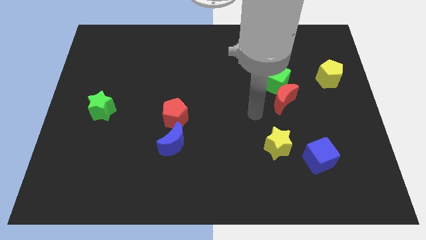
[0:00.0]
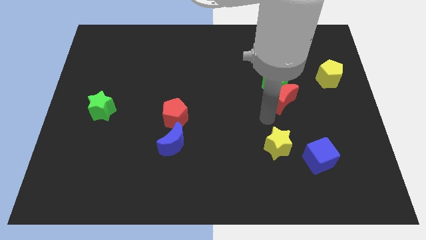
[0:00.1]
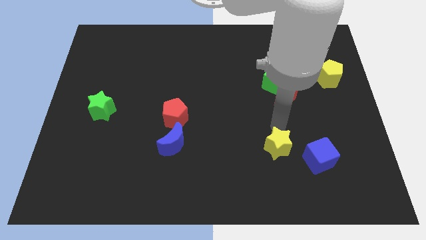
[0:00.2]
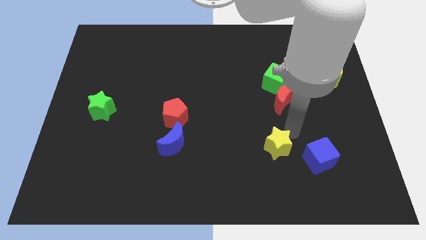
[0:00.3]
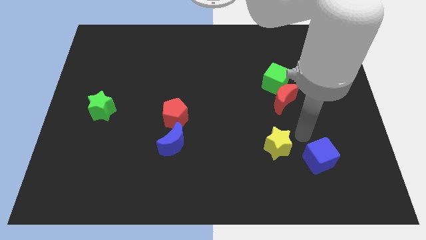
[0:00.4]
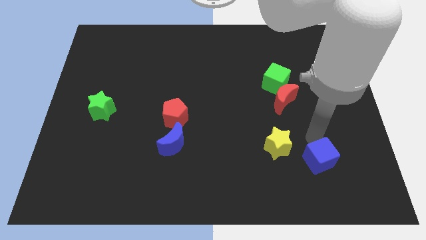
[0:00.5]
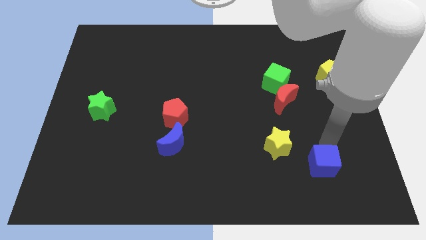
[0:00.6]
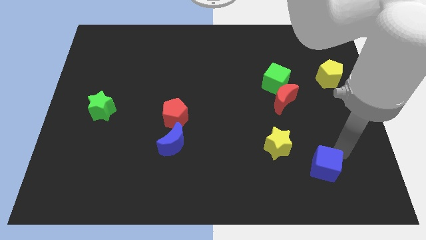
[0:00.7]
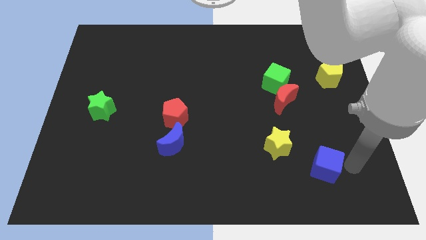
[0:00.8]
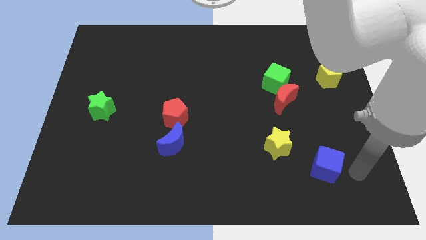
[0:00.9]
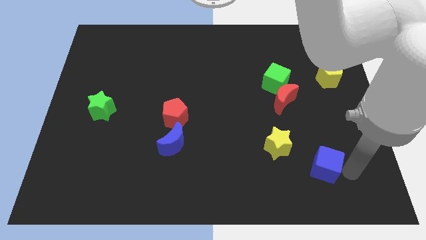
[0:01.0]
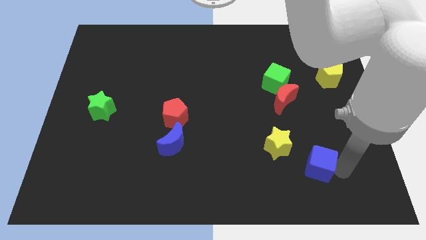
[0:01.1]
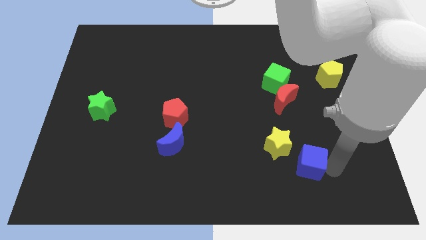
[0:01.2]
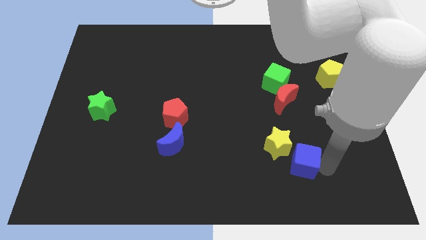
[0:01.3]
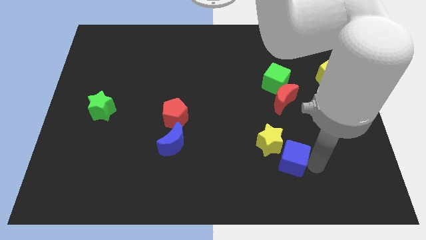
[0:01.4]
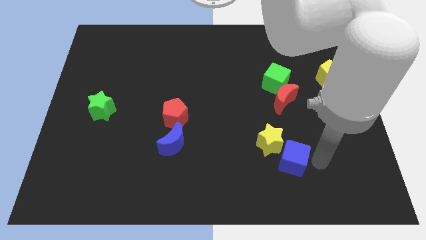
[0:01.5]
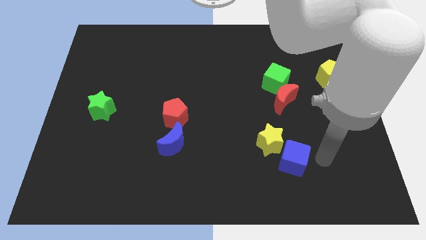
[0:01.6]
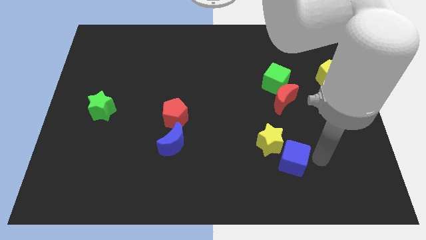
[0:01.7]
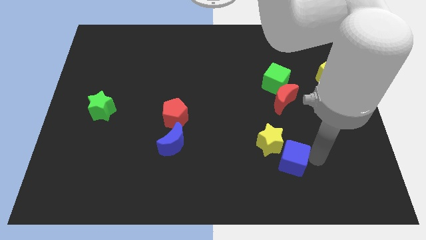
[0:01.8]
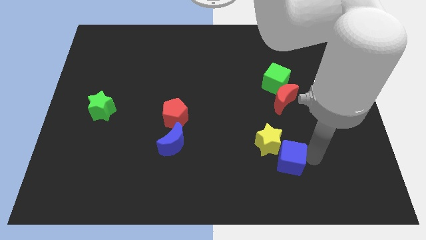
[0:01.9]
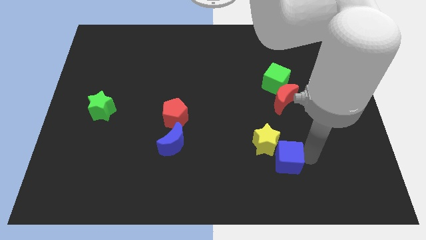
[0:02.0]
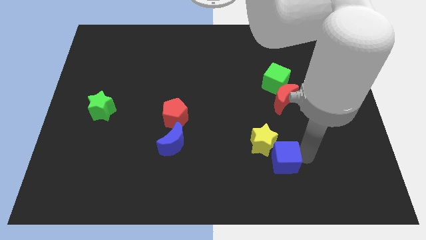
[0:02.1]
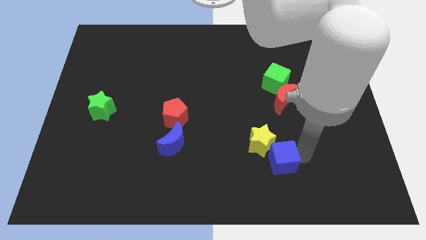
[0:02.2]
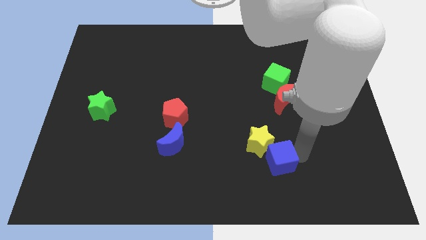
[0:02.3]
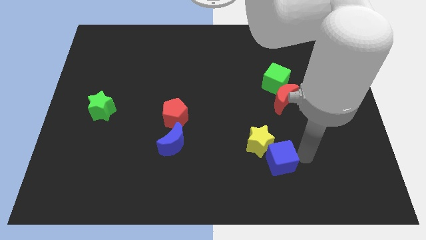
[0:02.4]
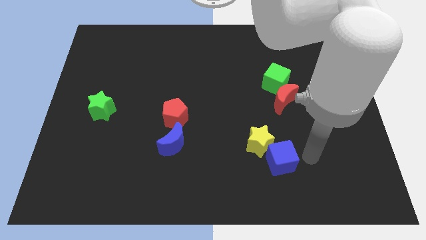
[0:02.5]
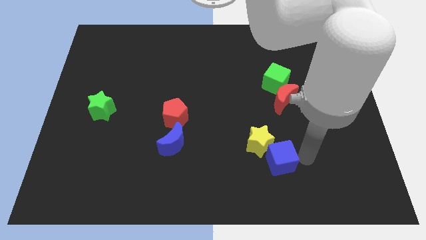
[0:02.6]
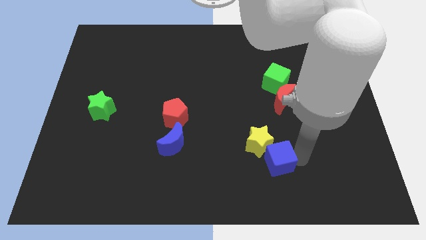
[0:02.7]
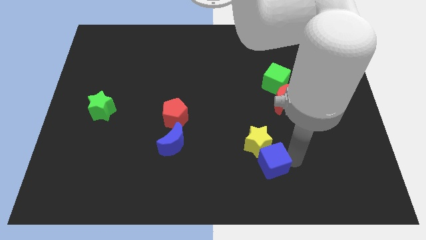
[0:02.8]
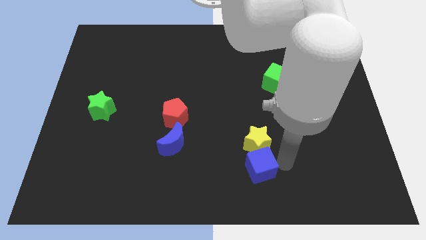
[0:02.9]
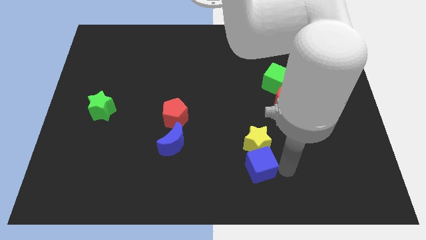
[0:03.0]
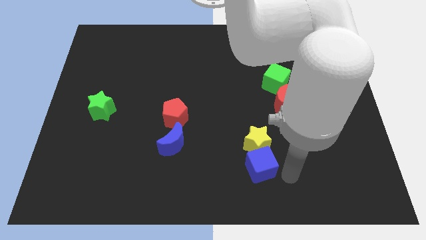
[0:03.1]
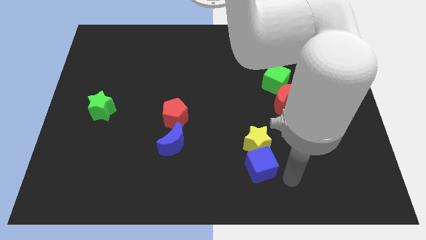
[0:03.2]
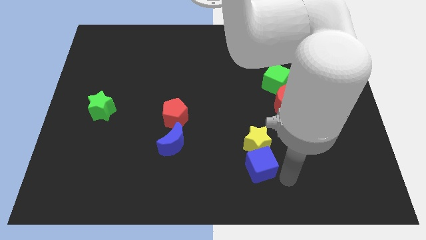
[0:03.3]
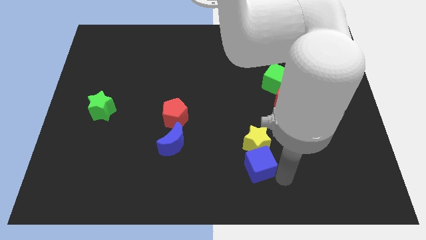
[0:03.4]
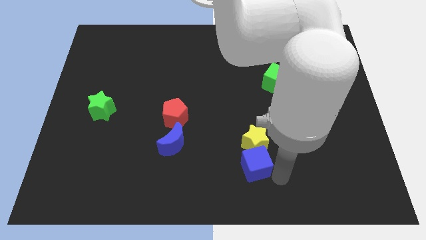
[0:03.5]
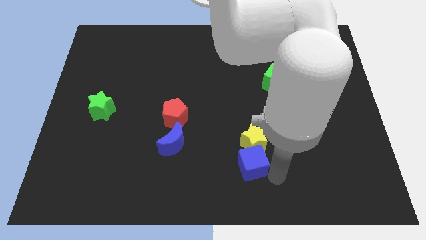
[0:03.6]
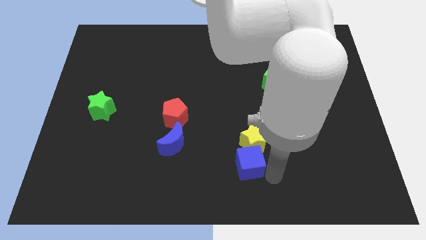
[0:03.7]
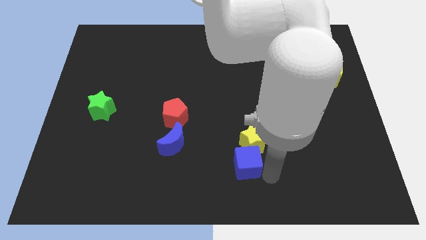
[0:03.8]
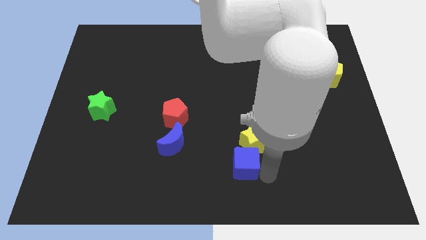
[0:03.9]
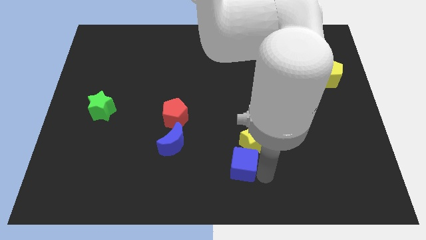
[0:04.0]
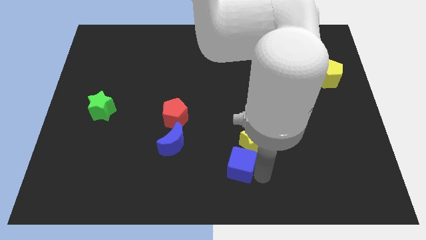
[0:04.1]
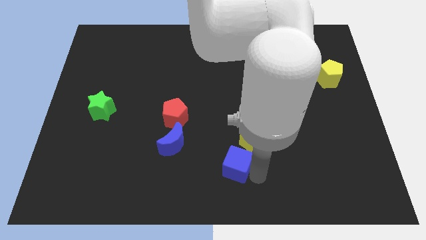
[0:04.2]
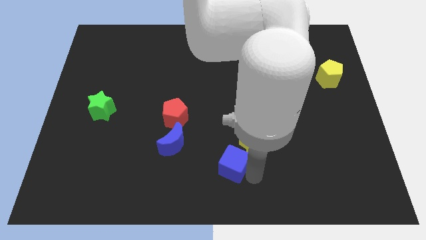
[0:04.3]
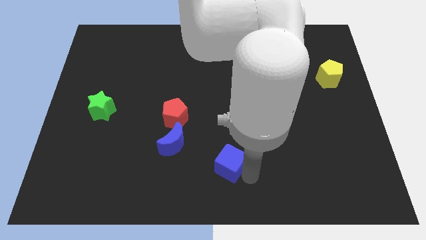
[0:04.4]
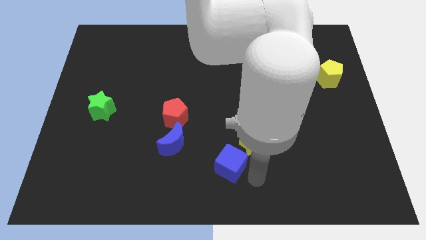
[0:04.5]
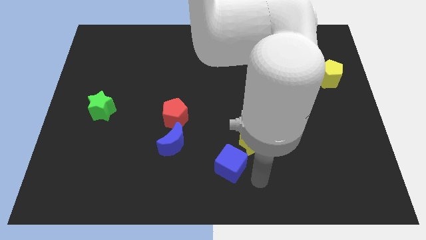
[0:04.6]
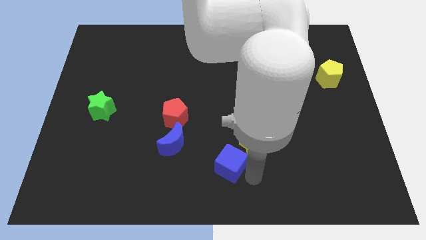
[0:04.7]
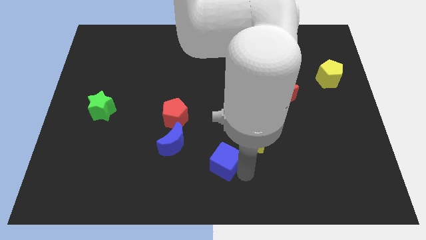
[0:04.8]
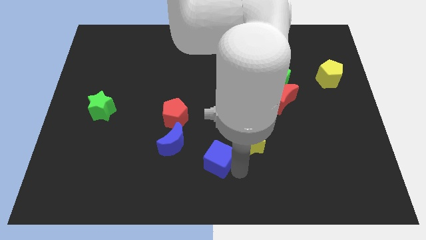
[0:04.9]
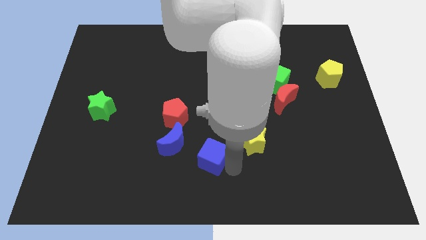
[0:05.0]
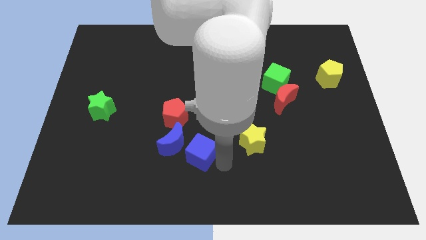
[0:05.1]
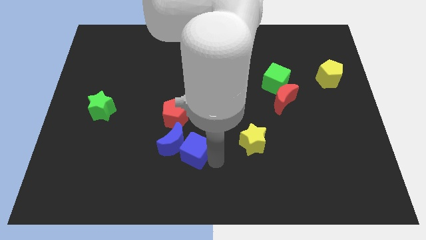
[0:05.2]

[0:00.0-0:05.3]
push the blue cube close to the blue moon

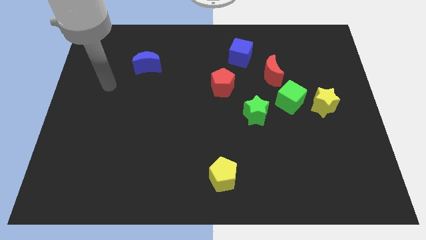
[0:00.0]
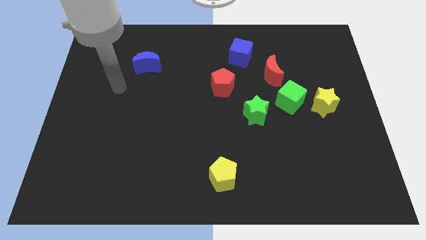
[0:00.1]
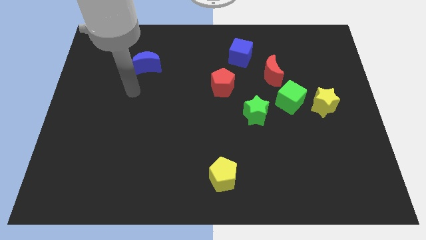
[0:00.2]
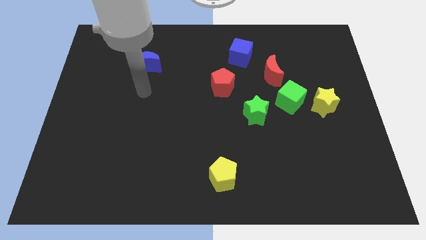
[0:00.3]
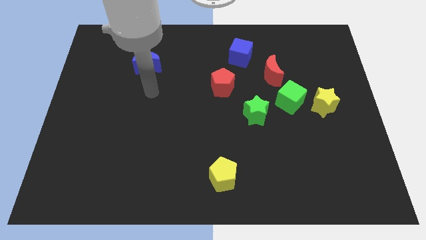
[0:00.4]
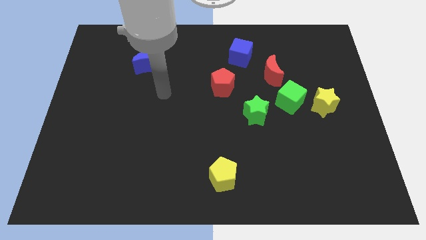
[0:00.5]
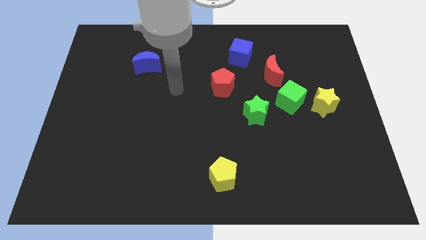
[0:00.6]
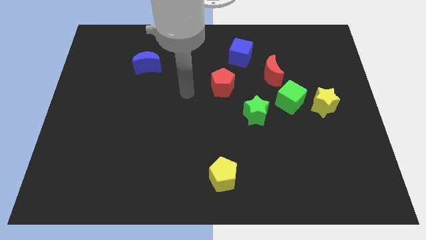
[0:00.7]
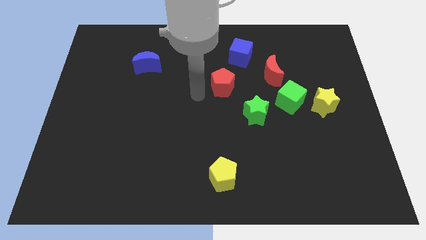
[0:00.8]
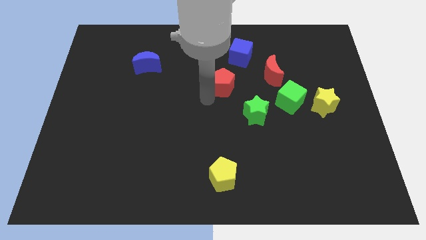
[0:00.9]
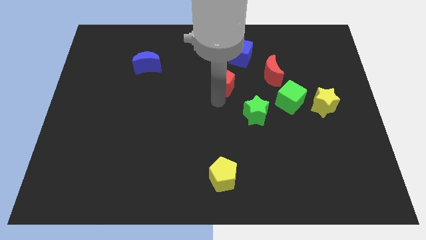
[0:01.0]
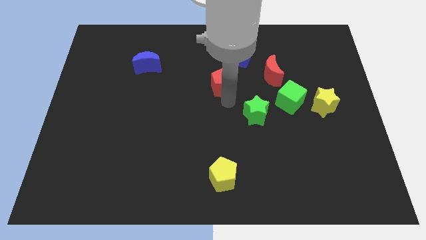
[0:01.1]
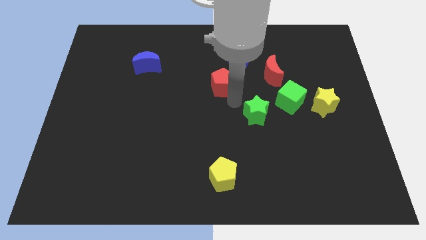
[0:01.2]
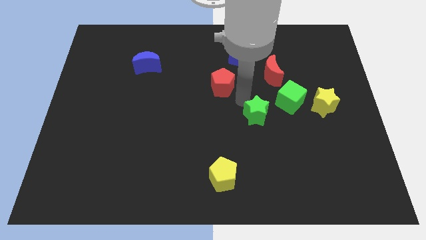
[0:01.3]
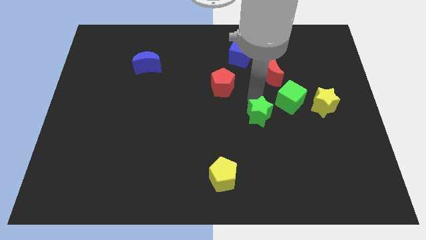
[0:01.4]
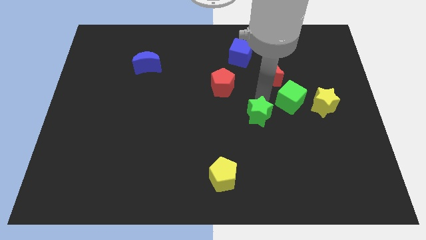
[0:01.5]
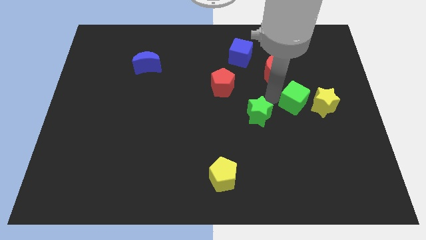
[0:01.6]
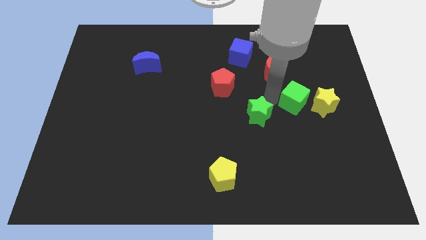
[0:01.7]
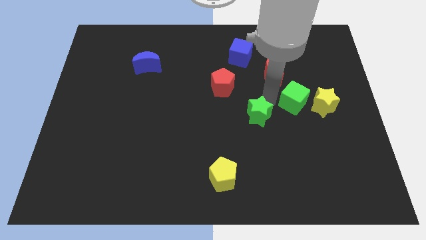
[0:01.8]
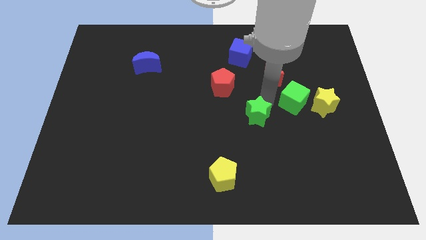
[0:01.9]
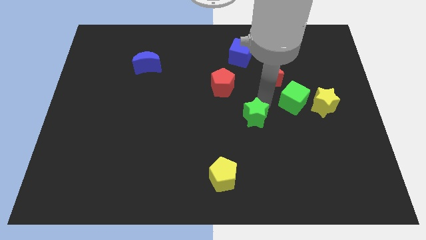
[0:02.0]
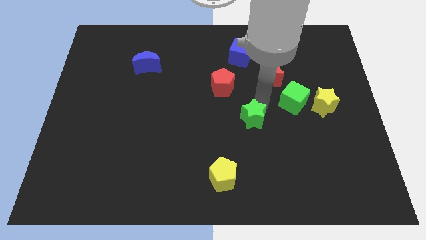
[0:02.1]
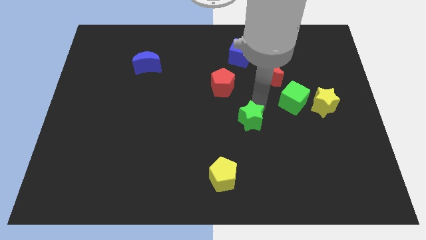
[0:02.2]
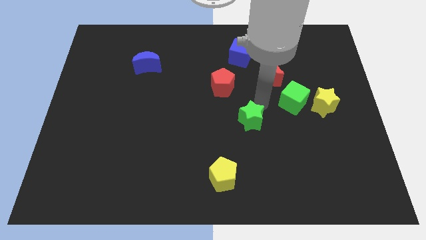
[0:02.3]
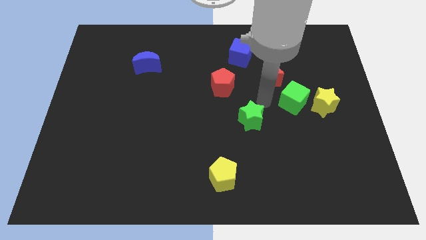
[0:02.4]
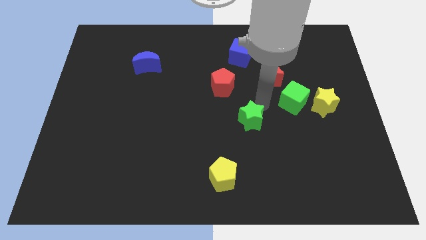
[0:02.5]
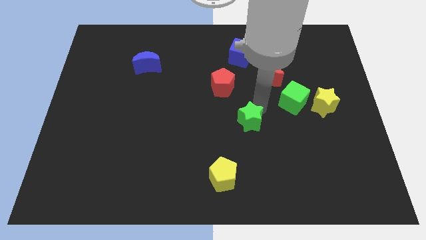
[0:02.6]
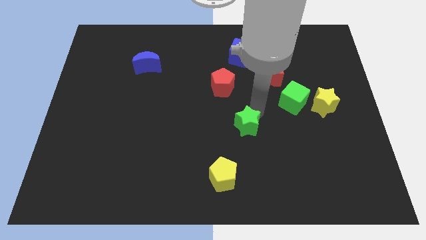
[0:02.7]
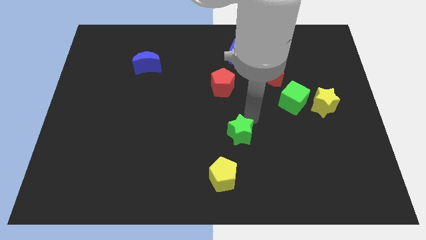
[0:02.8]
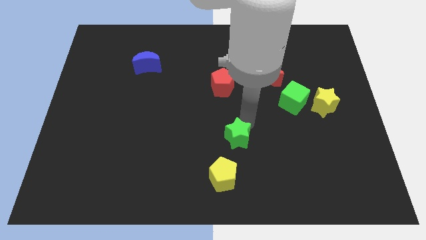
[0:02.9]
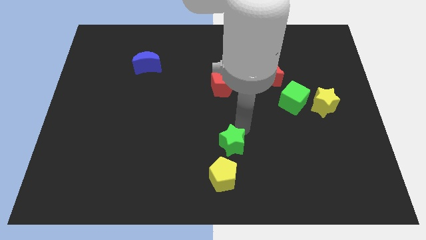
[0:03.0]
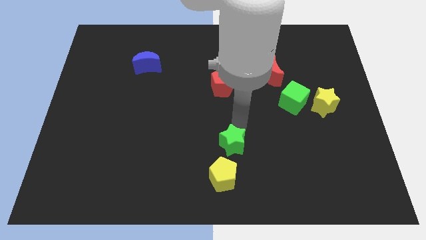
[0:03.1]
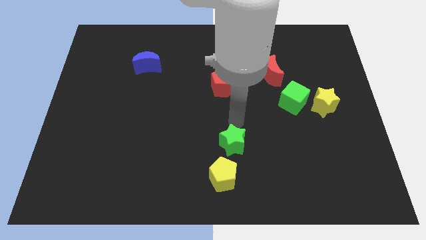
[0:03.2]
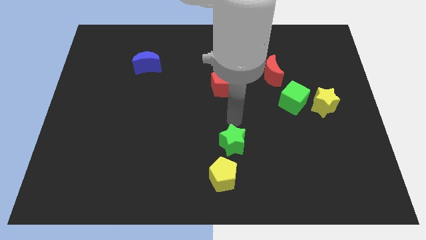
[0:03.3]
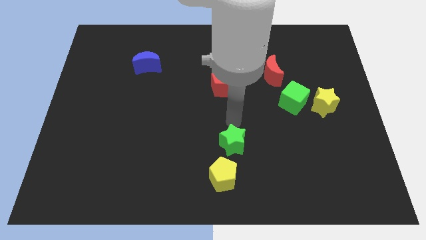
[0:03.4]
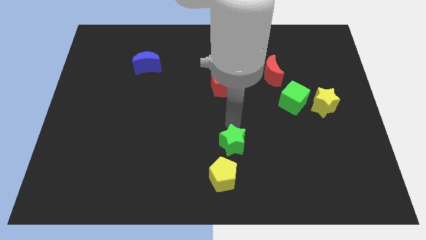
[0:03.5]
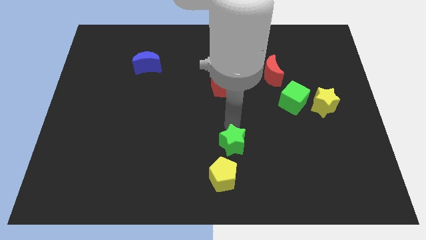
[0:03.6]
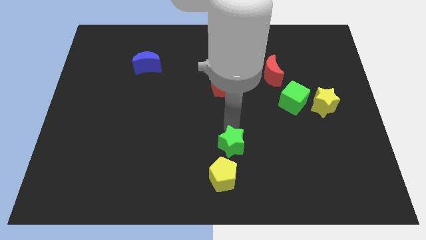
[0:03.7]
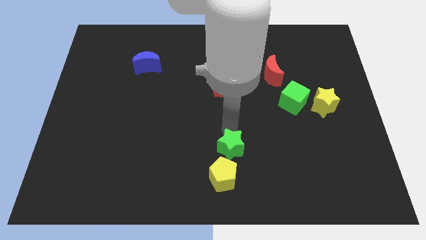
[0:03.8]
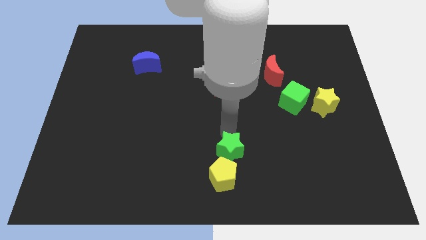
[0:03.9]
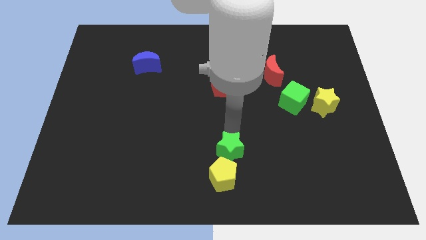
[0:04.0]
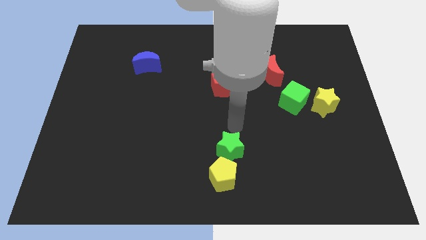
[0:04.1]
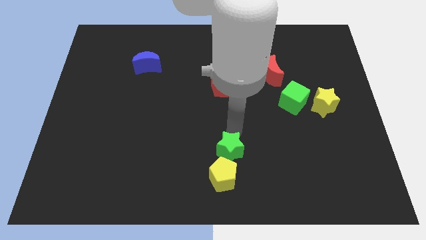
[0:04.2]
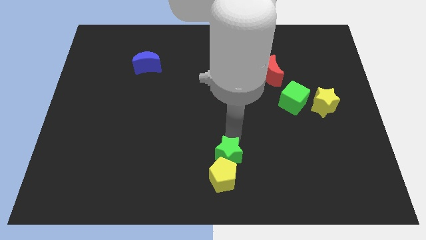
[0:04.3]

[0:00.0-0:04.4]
move the green star towards the yellow pentagon
